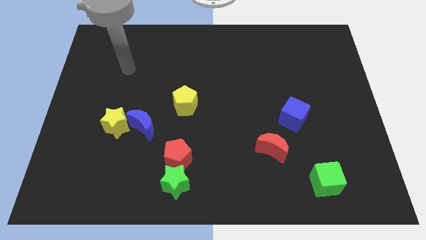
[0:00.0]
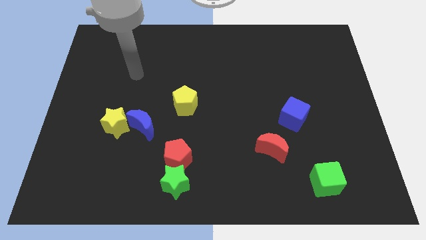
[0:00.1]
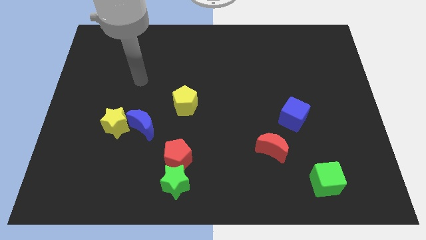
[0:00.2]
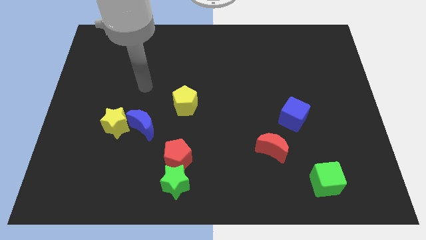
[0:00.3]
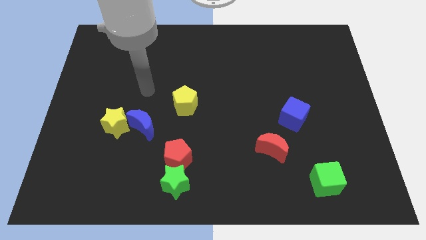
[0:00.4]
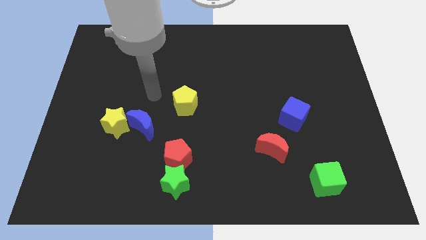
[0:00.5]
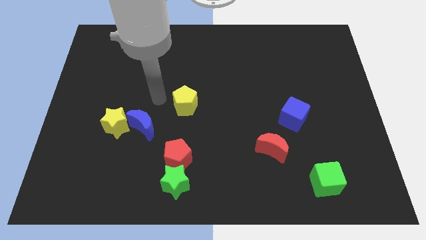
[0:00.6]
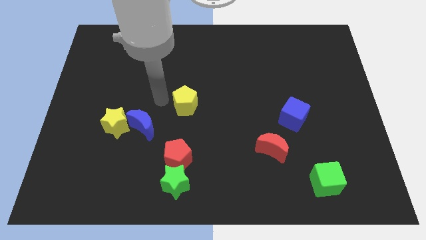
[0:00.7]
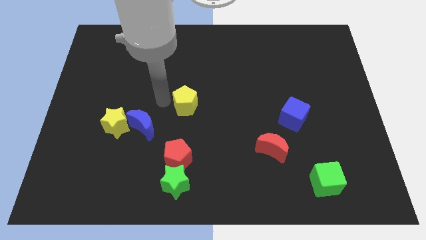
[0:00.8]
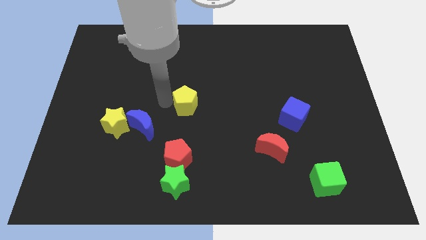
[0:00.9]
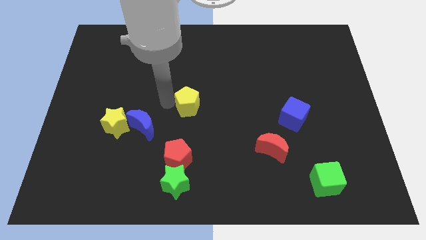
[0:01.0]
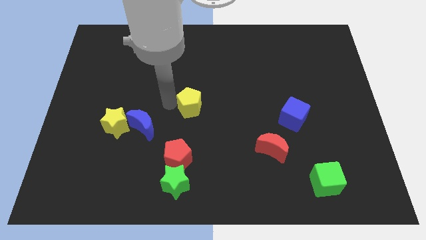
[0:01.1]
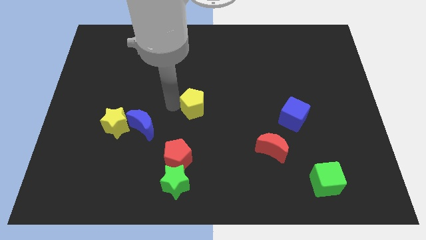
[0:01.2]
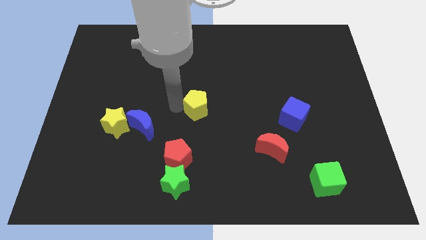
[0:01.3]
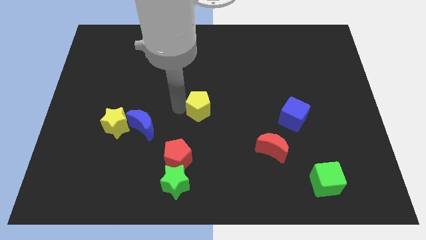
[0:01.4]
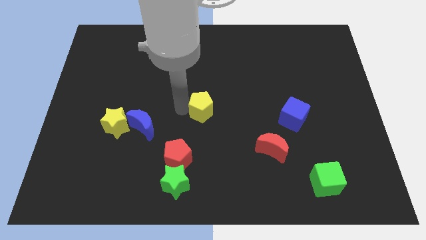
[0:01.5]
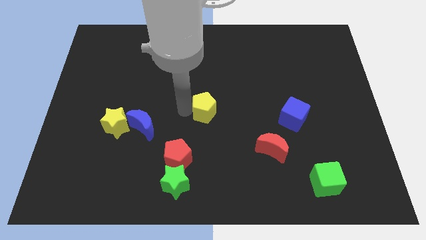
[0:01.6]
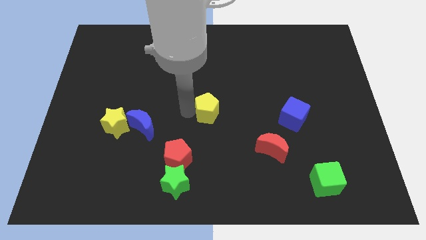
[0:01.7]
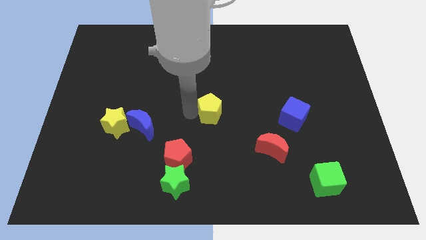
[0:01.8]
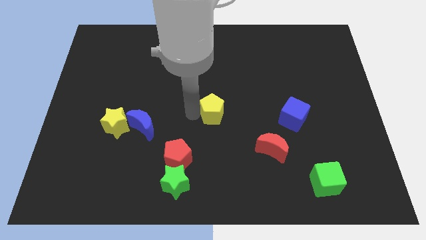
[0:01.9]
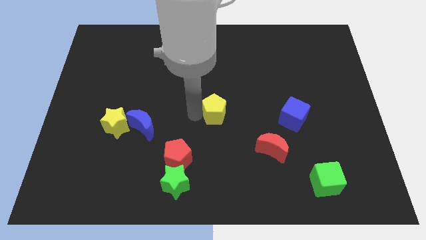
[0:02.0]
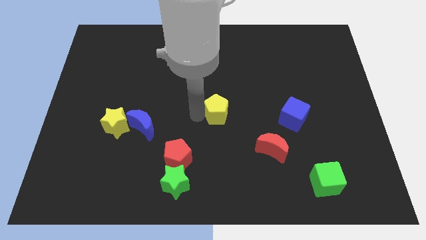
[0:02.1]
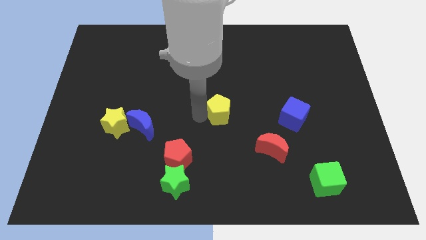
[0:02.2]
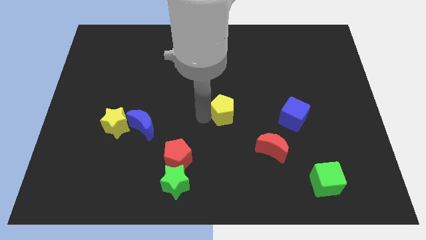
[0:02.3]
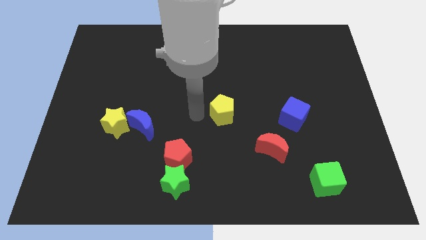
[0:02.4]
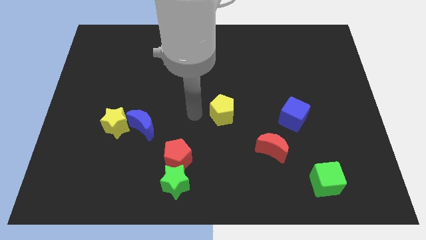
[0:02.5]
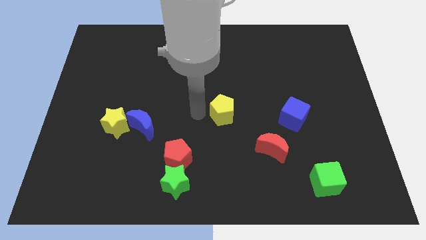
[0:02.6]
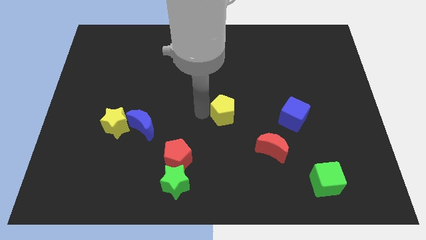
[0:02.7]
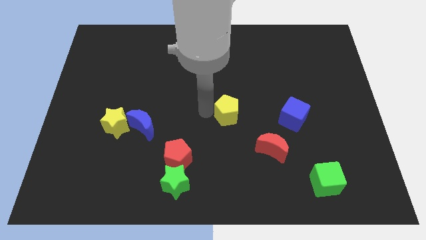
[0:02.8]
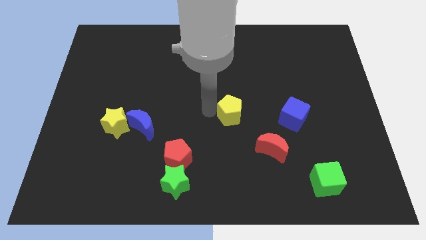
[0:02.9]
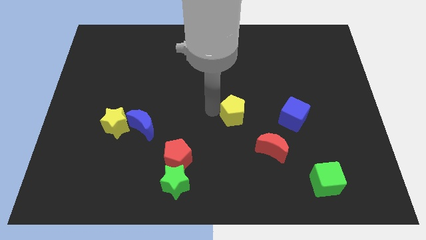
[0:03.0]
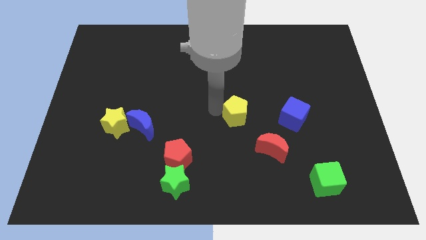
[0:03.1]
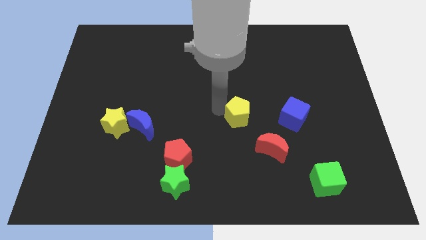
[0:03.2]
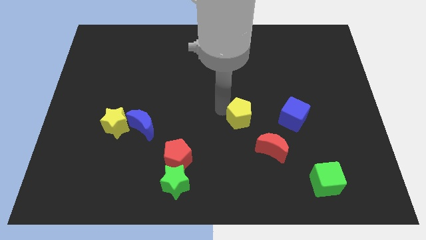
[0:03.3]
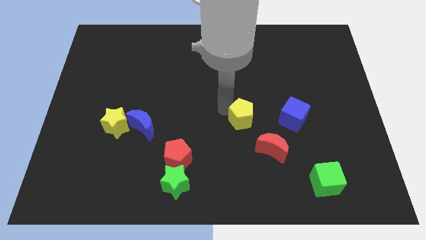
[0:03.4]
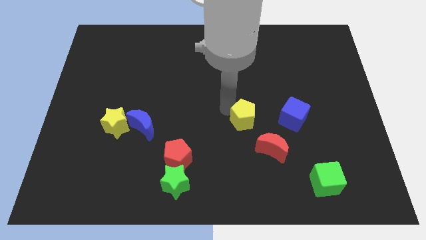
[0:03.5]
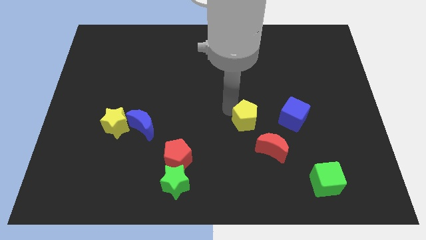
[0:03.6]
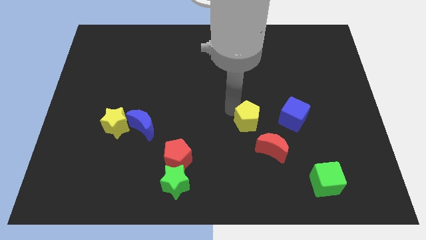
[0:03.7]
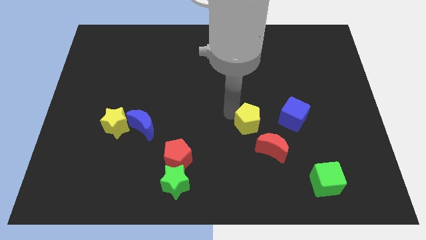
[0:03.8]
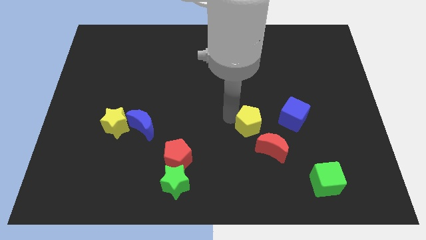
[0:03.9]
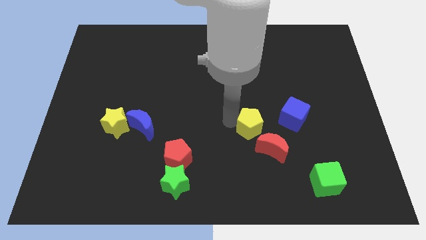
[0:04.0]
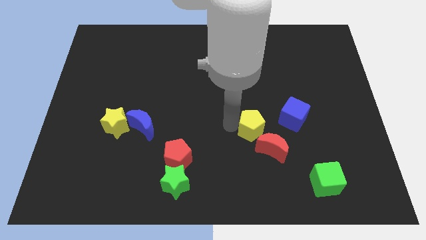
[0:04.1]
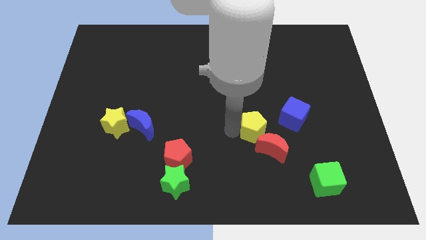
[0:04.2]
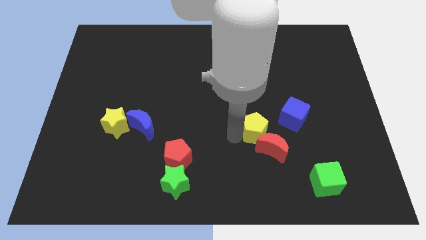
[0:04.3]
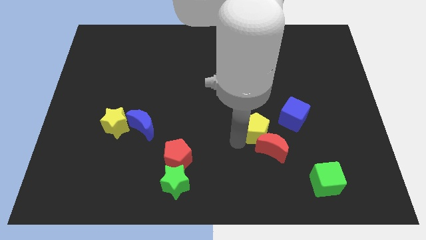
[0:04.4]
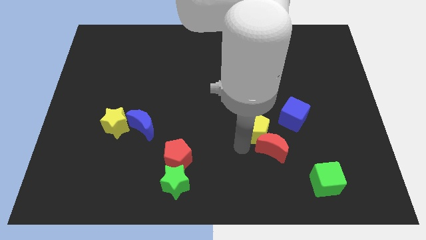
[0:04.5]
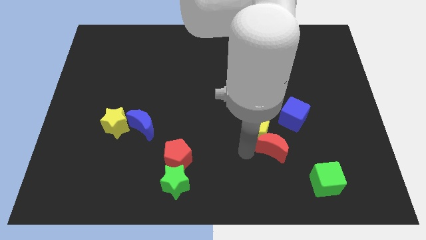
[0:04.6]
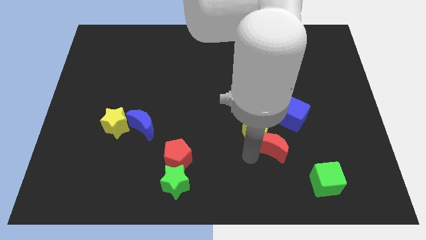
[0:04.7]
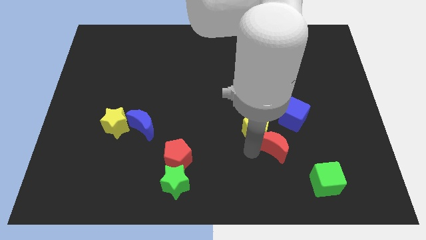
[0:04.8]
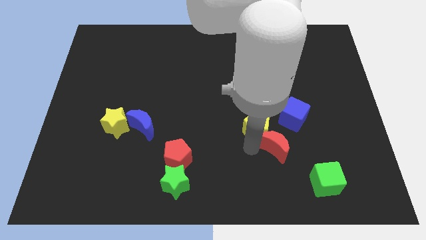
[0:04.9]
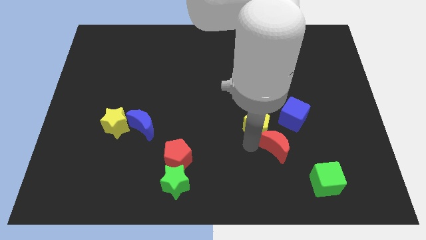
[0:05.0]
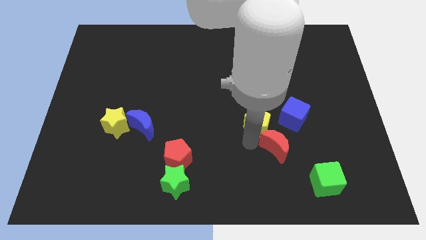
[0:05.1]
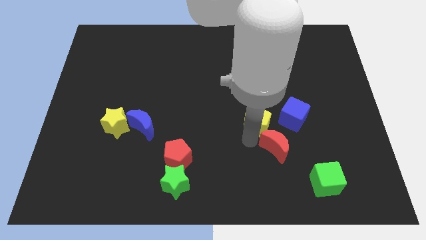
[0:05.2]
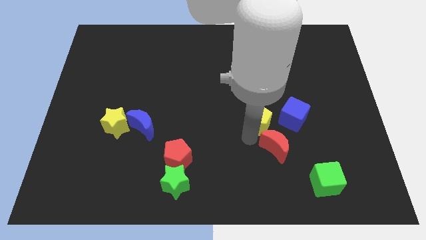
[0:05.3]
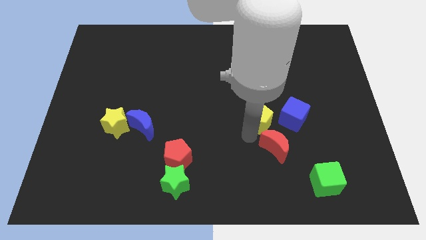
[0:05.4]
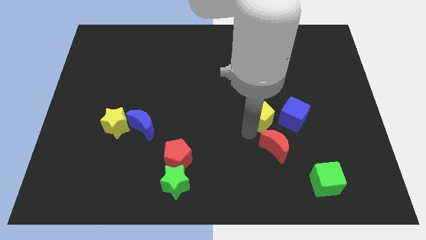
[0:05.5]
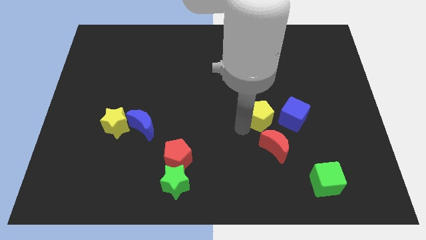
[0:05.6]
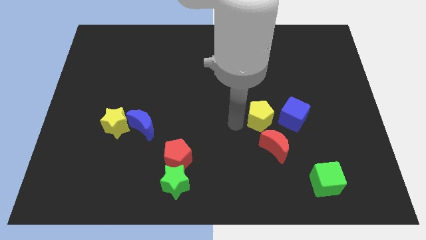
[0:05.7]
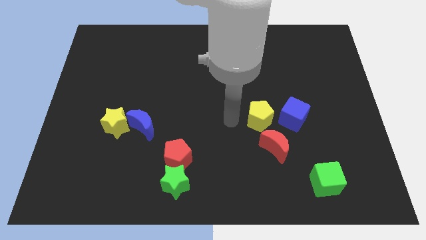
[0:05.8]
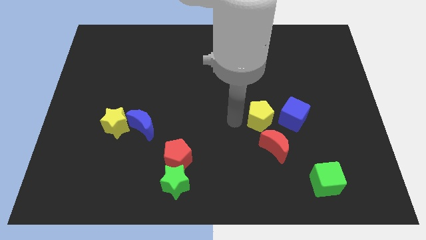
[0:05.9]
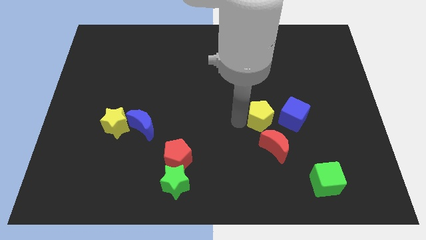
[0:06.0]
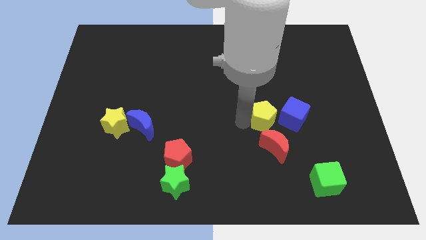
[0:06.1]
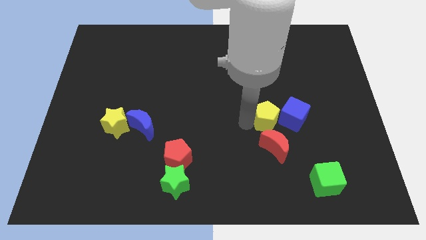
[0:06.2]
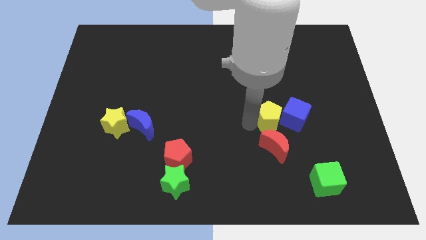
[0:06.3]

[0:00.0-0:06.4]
slide the yellow pentagon close to the blue cube

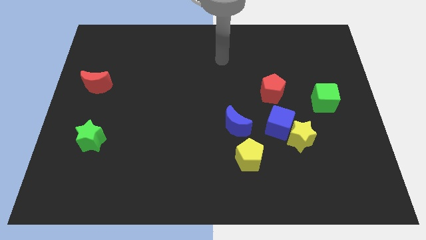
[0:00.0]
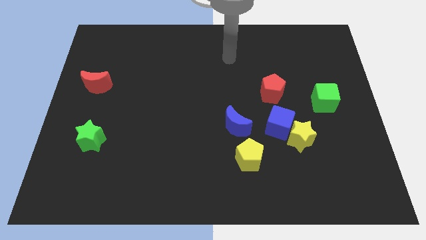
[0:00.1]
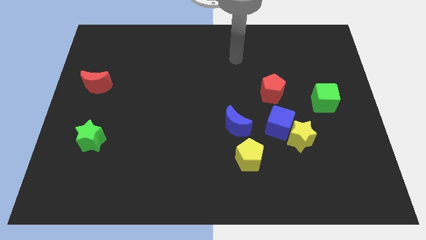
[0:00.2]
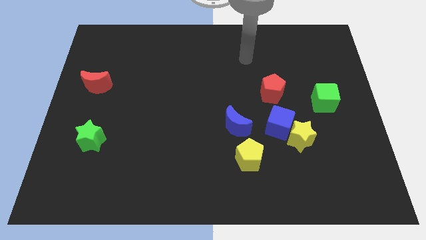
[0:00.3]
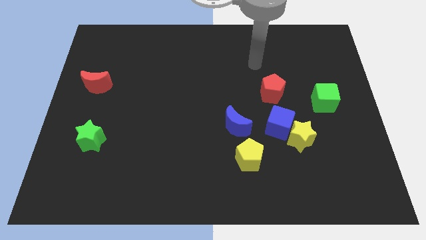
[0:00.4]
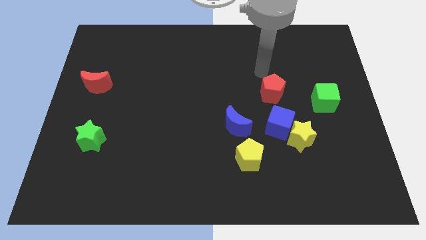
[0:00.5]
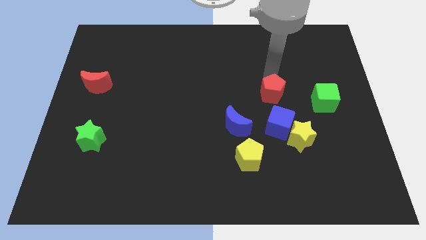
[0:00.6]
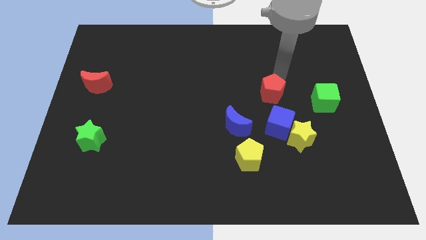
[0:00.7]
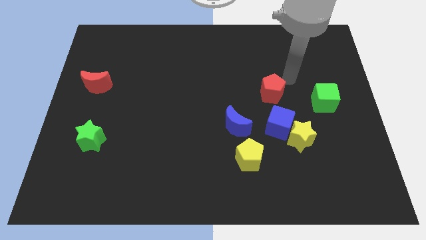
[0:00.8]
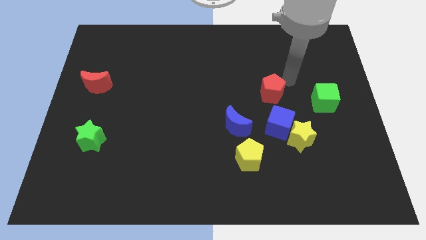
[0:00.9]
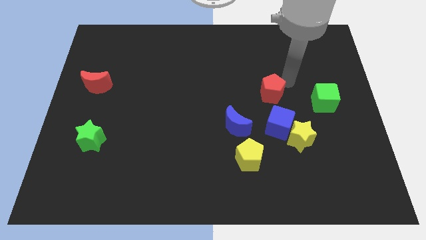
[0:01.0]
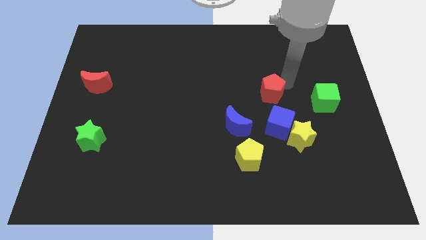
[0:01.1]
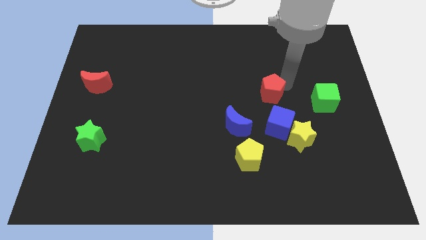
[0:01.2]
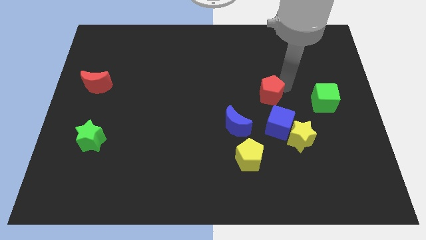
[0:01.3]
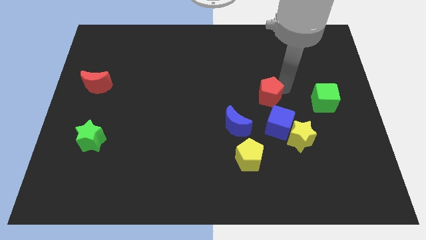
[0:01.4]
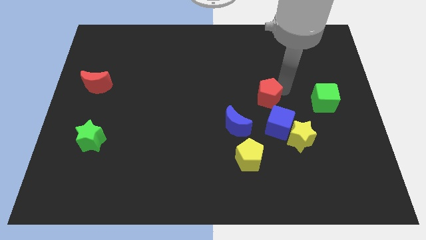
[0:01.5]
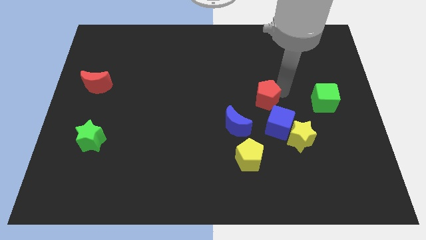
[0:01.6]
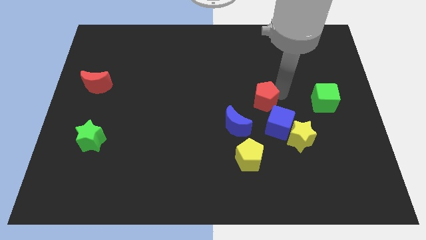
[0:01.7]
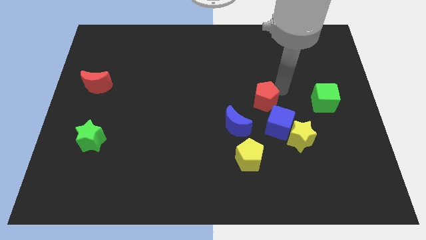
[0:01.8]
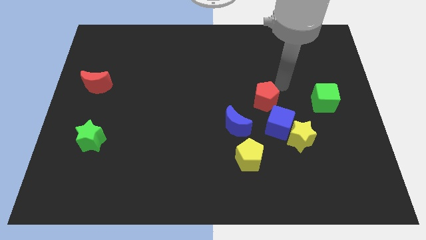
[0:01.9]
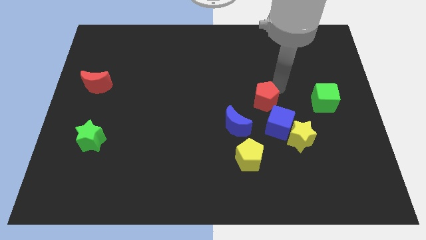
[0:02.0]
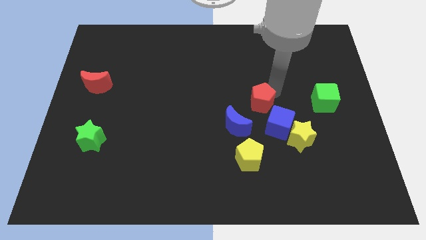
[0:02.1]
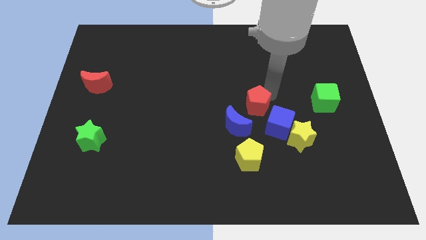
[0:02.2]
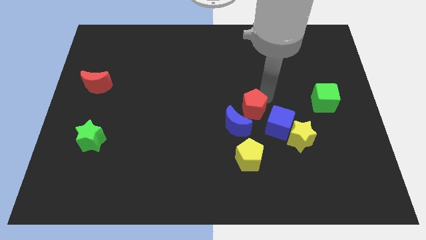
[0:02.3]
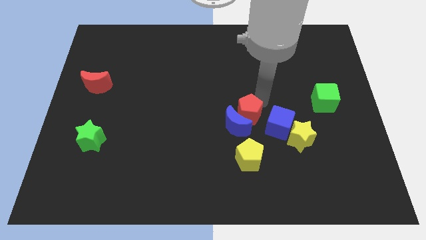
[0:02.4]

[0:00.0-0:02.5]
move the red pentagon next to the blue moon
